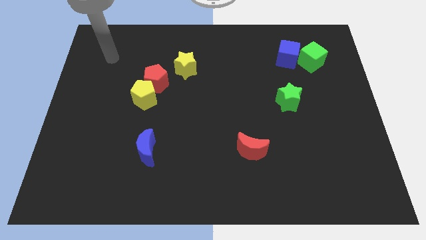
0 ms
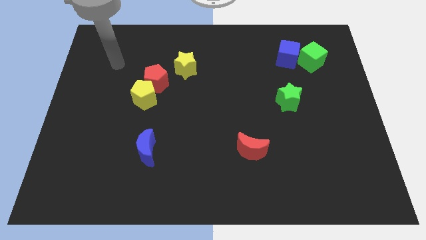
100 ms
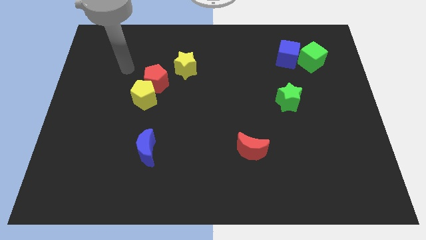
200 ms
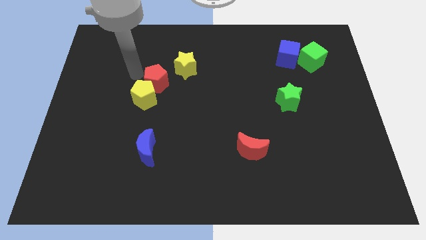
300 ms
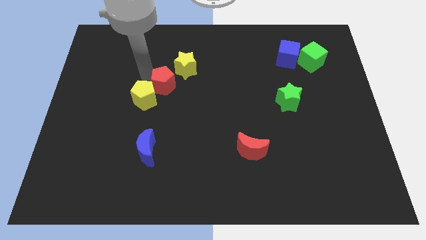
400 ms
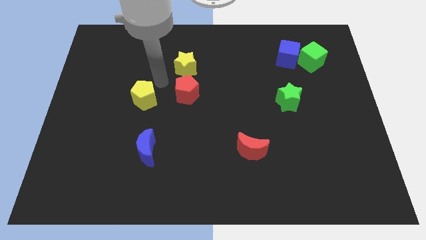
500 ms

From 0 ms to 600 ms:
move the yellow pentagon away from the red pentagon

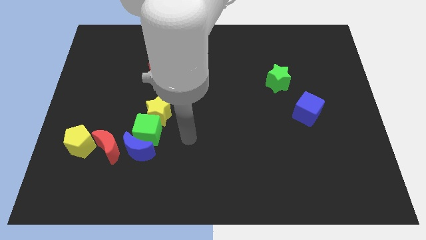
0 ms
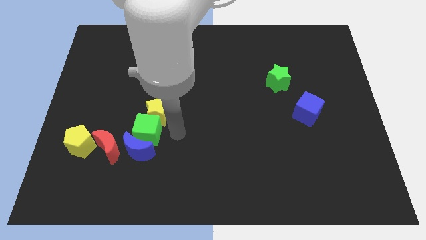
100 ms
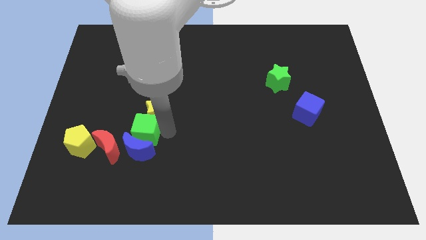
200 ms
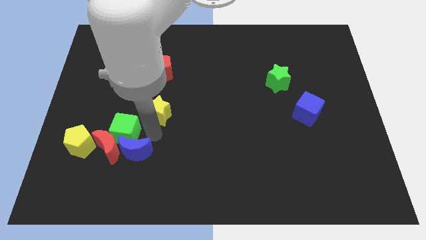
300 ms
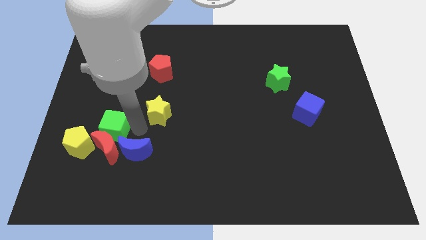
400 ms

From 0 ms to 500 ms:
separate the yellow star from the green cube

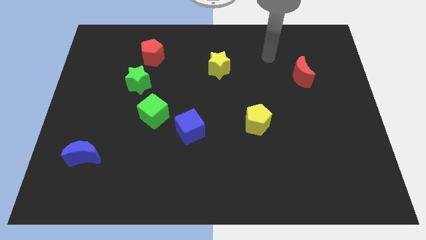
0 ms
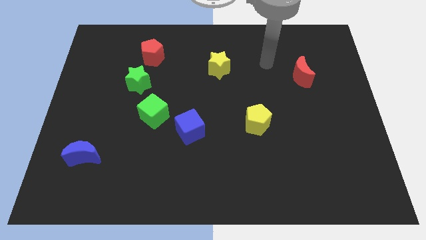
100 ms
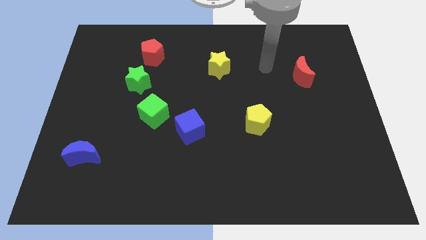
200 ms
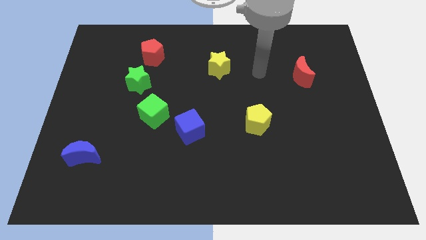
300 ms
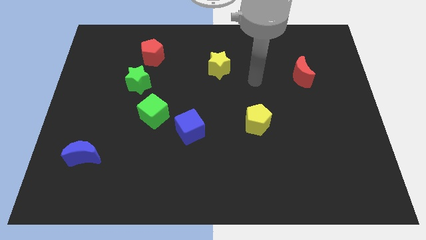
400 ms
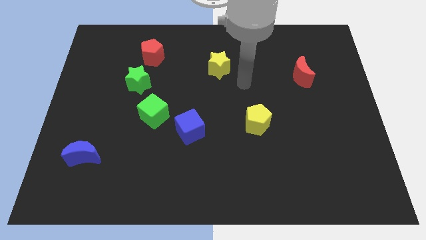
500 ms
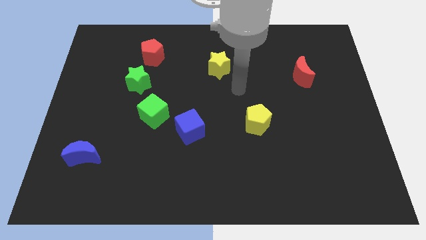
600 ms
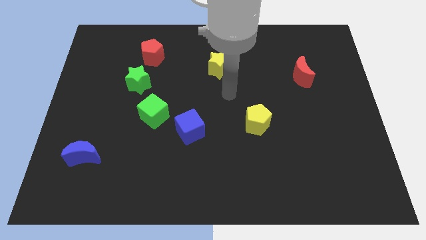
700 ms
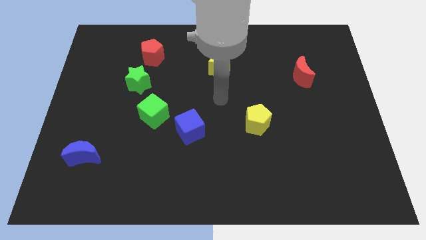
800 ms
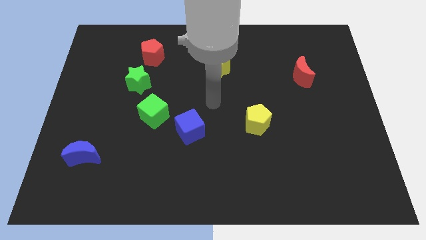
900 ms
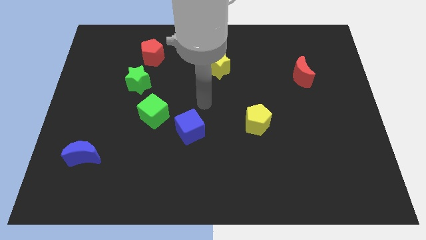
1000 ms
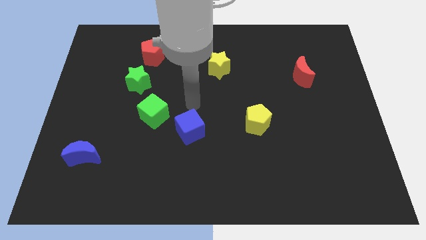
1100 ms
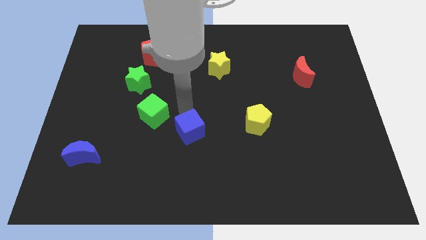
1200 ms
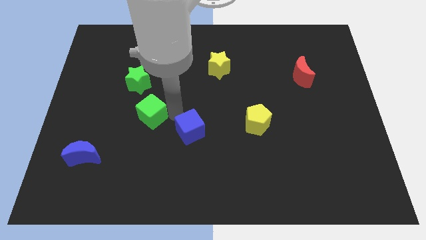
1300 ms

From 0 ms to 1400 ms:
separate the blue cube from the green cube

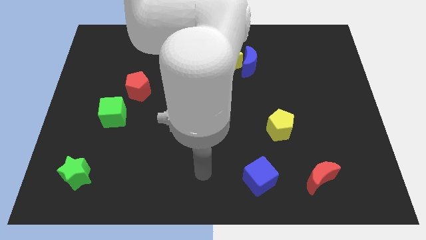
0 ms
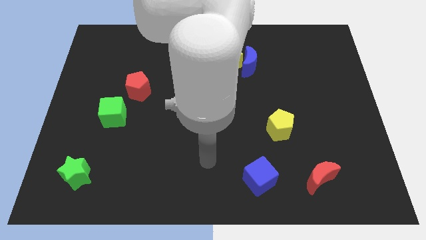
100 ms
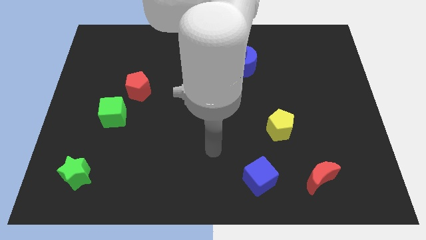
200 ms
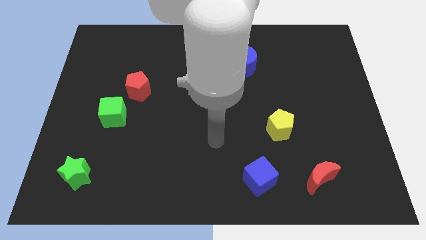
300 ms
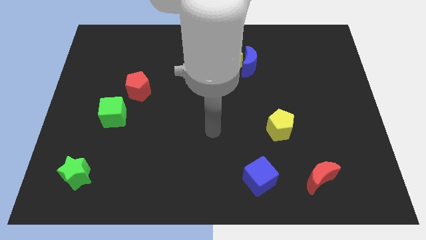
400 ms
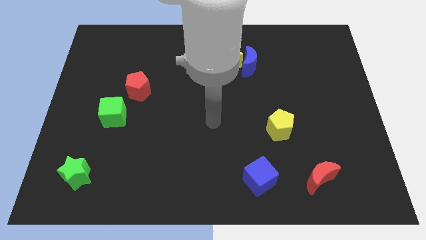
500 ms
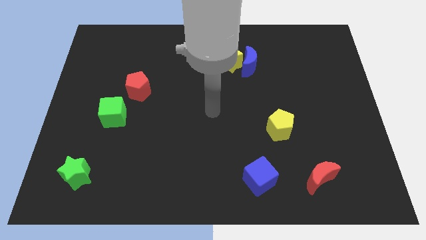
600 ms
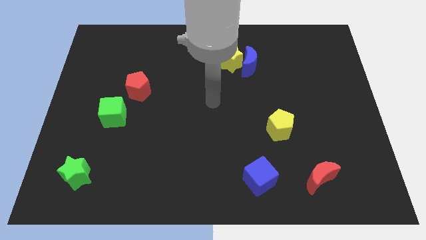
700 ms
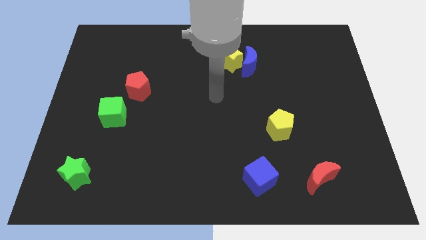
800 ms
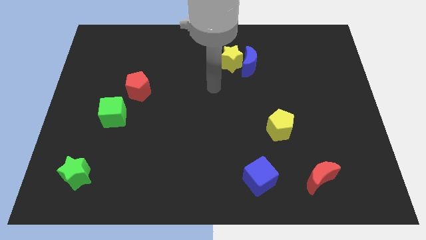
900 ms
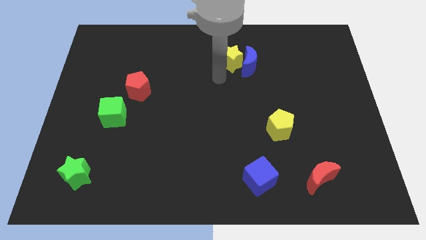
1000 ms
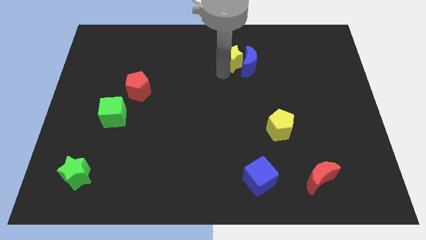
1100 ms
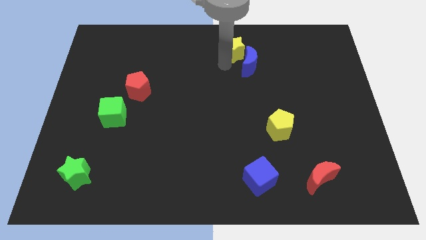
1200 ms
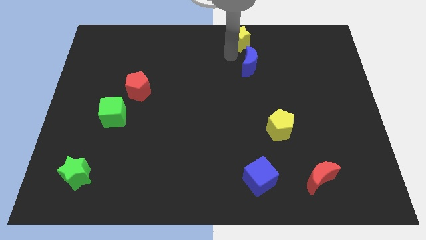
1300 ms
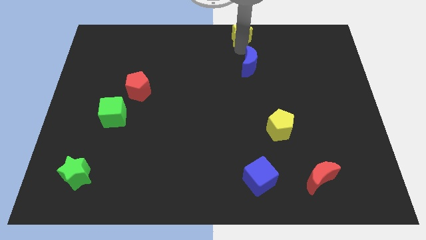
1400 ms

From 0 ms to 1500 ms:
move the blue moon away from the yellow star

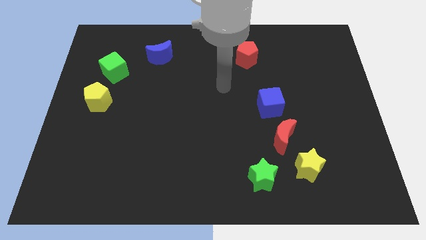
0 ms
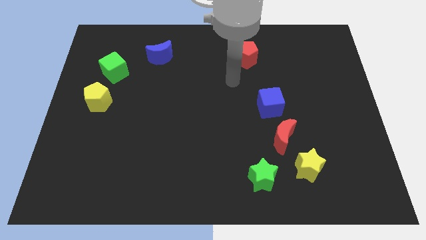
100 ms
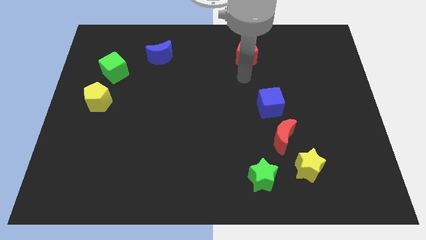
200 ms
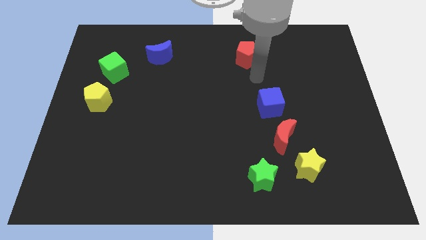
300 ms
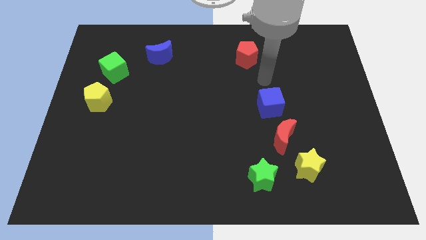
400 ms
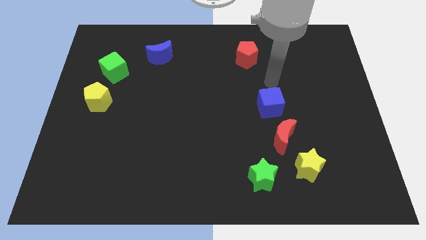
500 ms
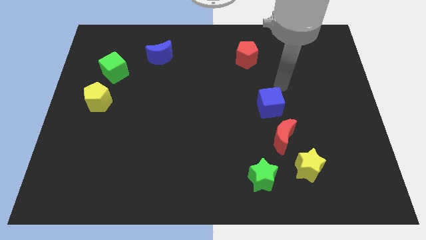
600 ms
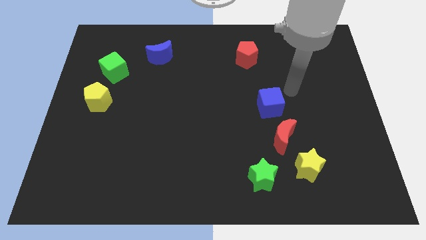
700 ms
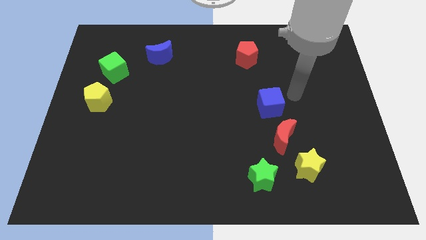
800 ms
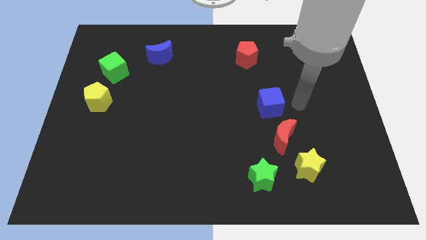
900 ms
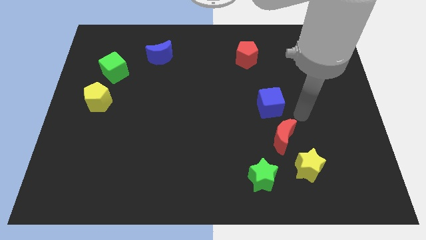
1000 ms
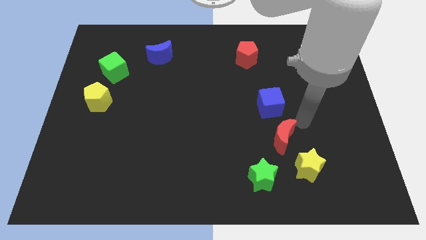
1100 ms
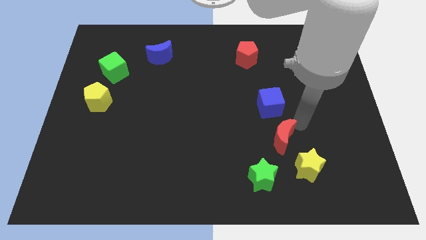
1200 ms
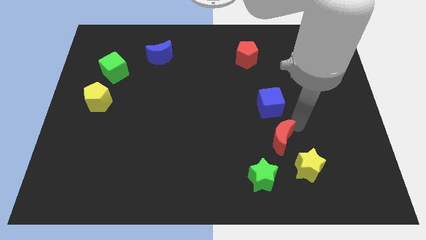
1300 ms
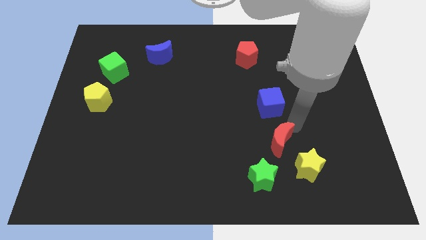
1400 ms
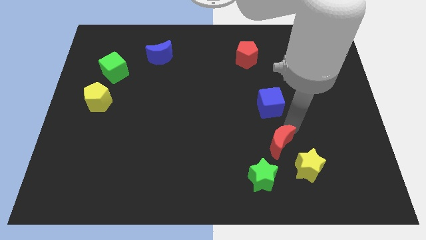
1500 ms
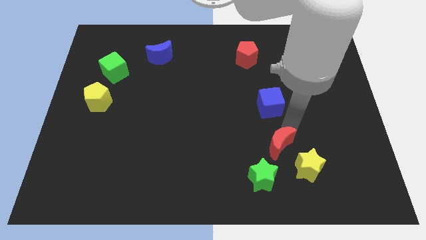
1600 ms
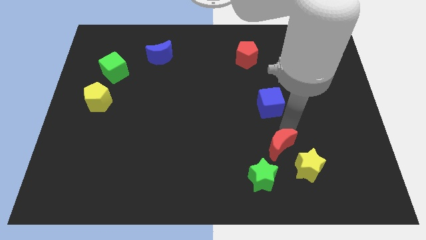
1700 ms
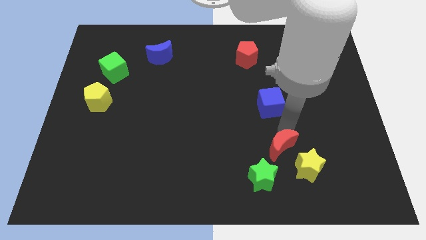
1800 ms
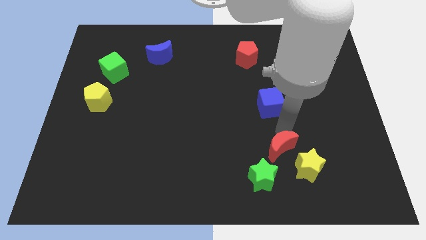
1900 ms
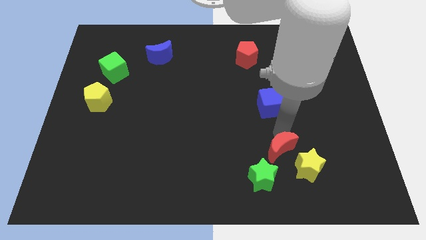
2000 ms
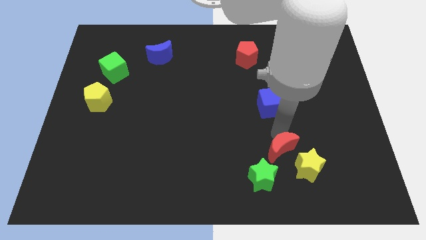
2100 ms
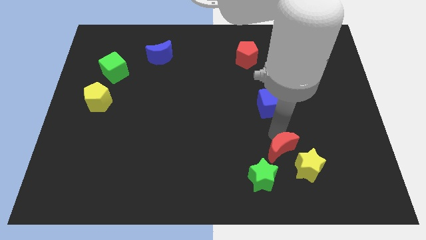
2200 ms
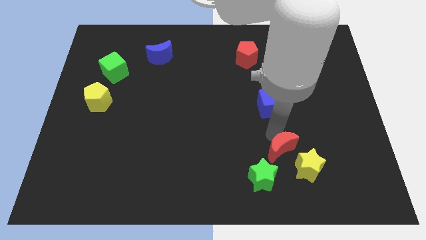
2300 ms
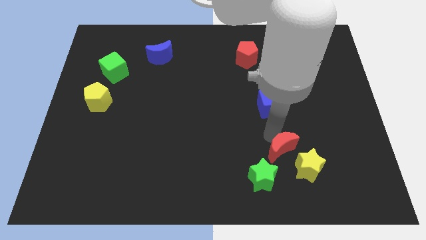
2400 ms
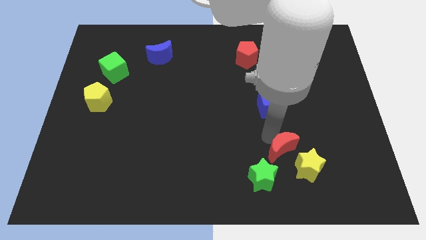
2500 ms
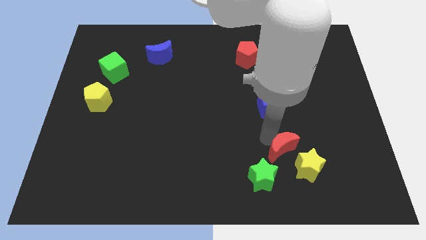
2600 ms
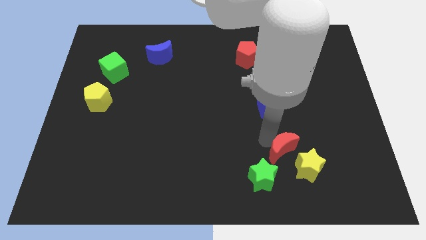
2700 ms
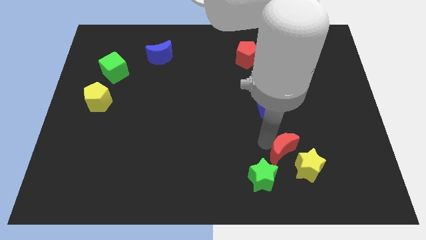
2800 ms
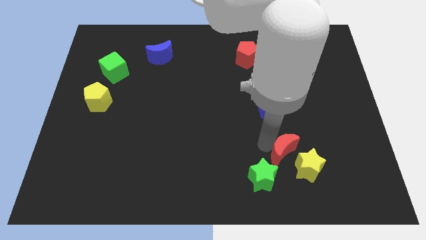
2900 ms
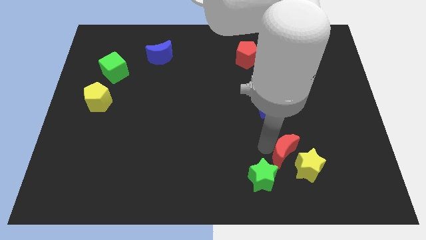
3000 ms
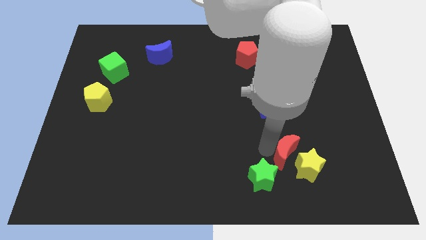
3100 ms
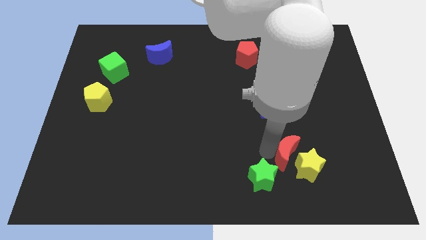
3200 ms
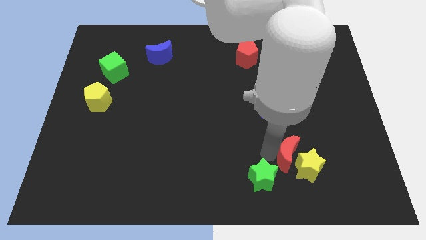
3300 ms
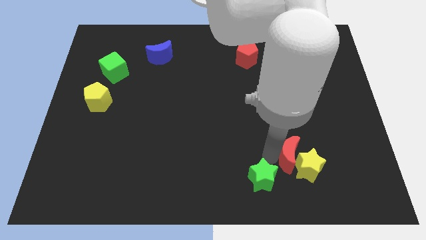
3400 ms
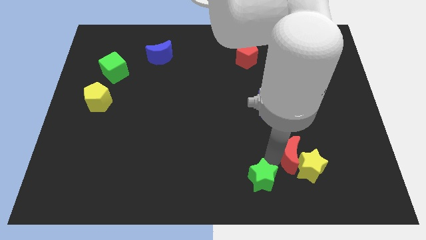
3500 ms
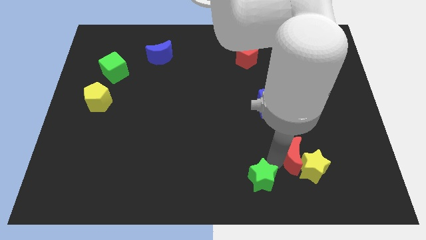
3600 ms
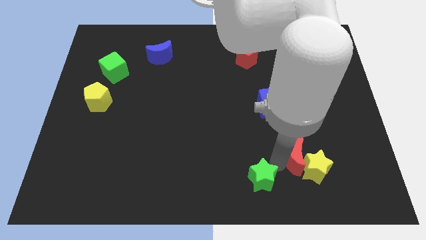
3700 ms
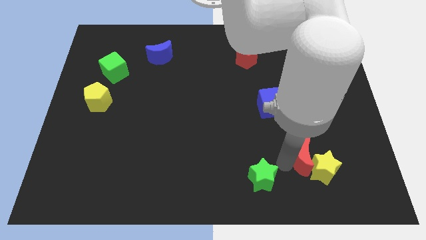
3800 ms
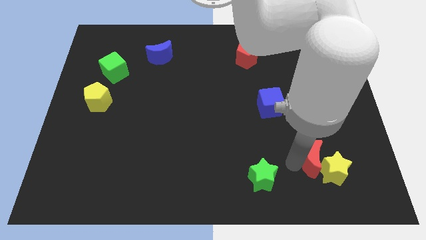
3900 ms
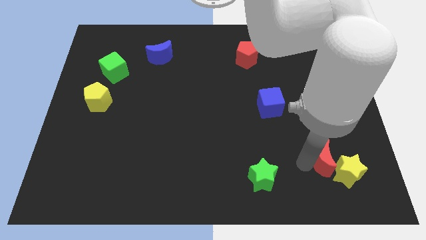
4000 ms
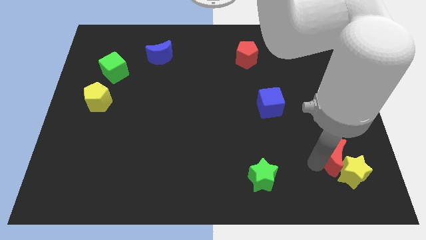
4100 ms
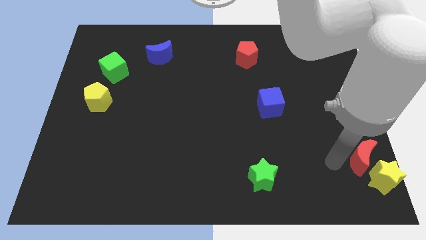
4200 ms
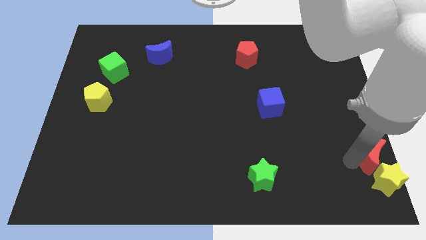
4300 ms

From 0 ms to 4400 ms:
pull the red moon apart from the yellow star and blue cube

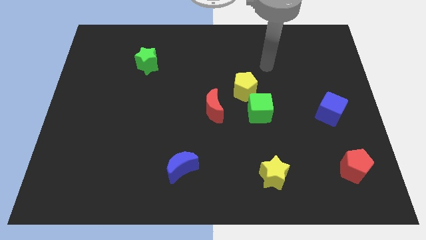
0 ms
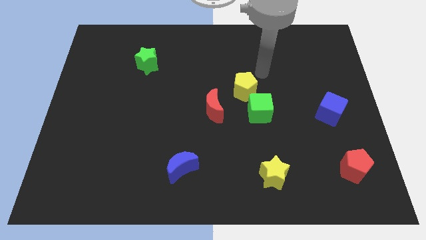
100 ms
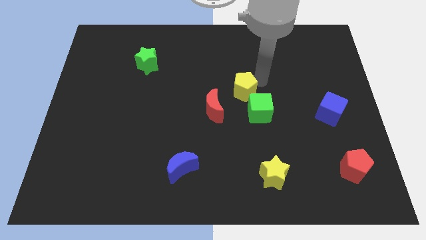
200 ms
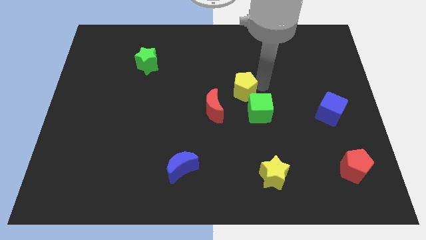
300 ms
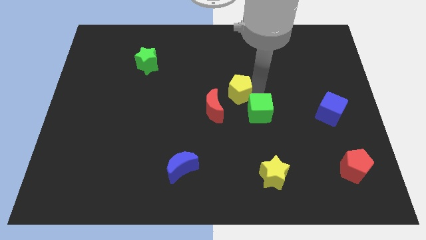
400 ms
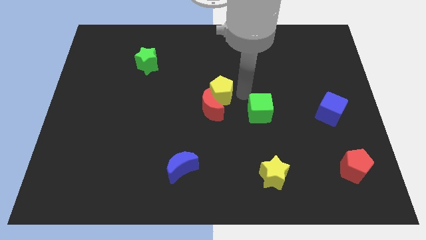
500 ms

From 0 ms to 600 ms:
pull the green cube apart from the yellow pentagon

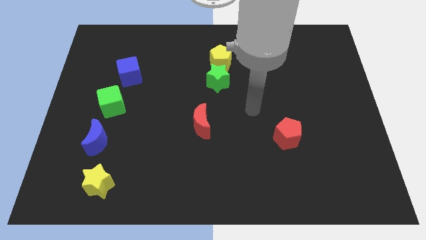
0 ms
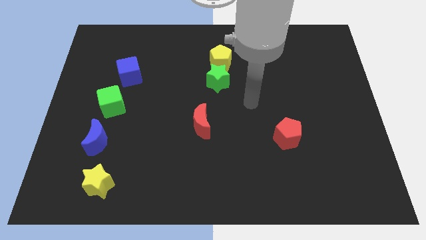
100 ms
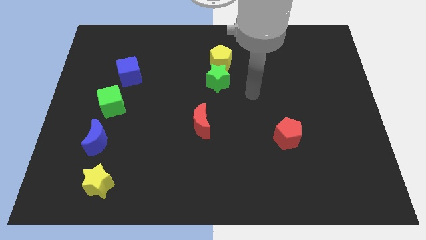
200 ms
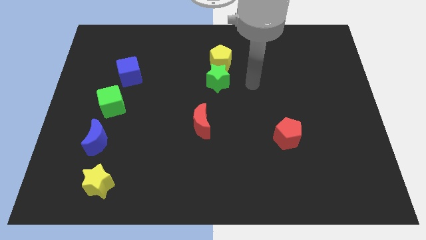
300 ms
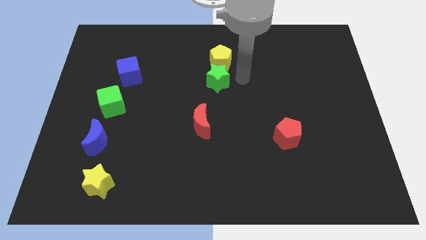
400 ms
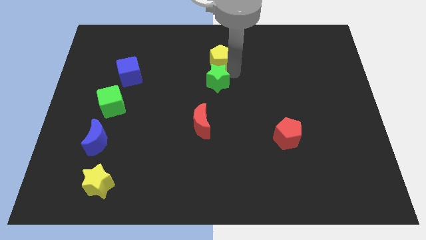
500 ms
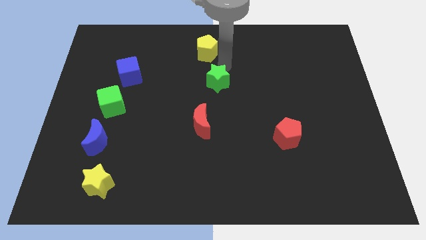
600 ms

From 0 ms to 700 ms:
move the green star away from the yellow pentagon
